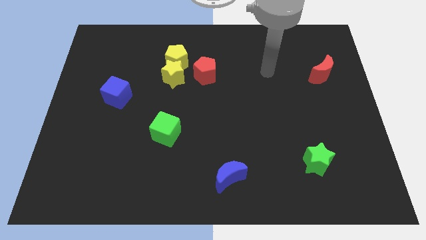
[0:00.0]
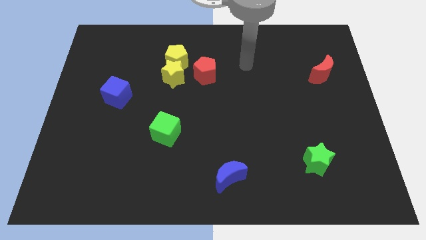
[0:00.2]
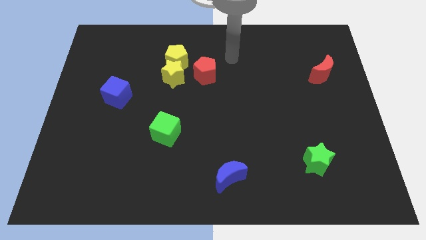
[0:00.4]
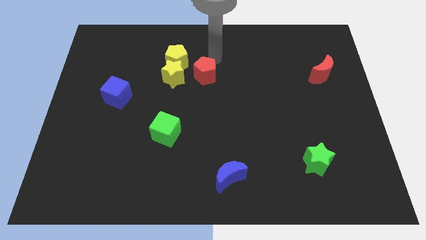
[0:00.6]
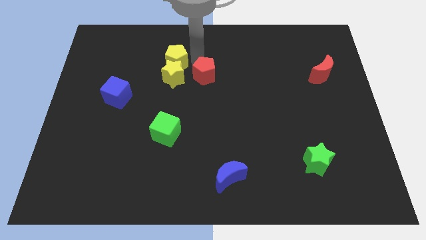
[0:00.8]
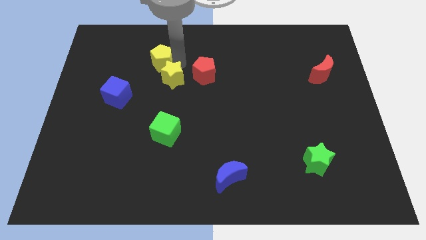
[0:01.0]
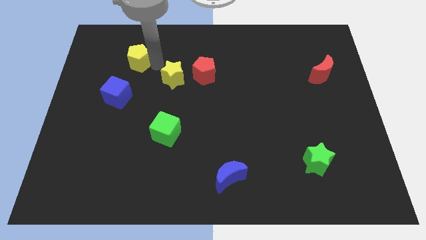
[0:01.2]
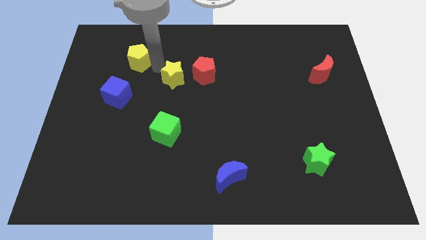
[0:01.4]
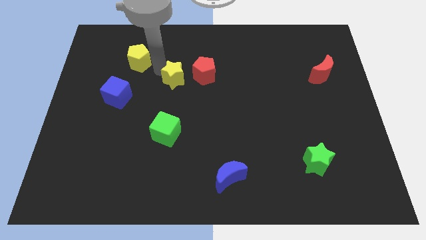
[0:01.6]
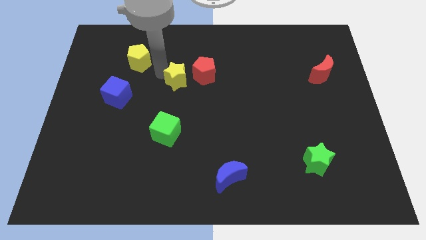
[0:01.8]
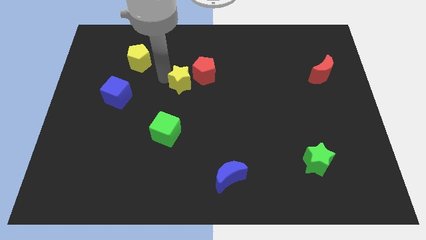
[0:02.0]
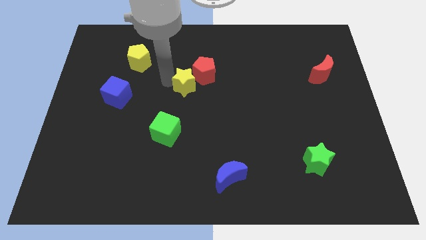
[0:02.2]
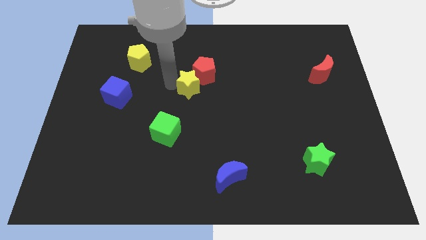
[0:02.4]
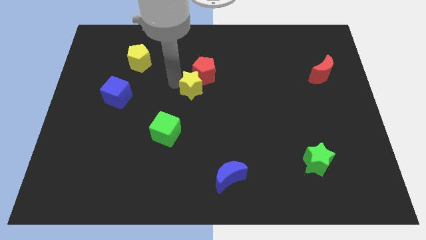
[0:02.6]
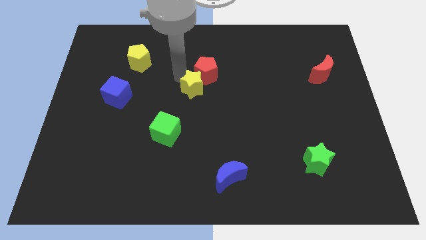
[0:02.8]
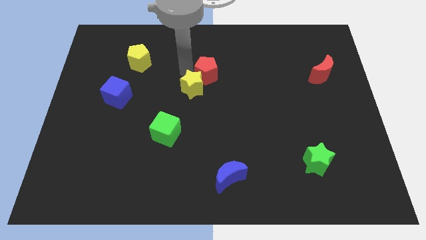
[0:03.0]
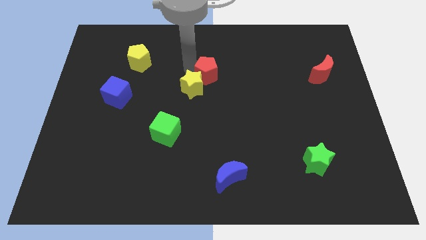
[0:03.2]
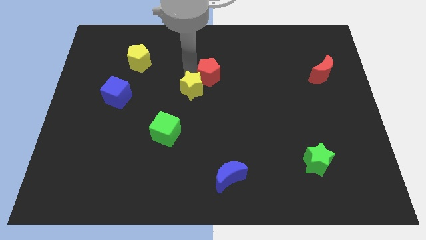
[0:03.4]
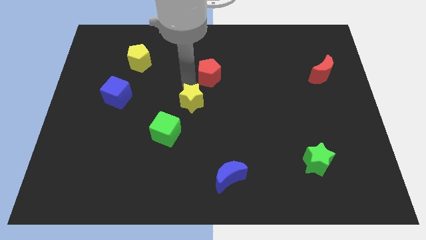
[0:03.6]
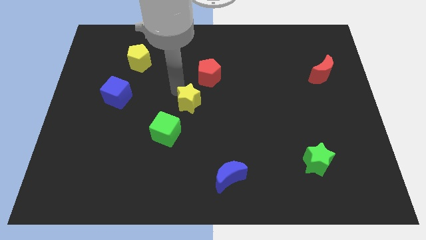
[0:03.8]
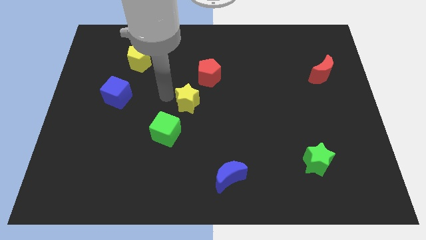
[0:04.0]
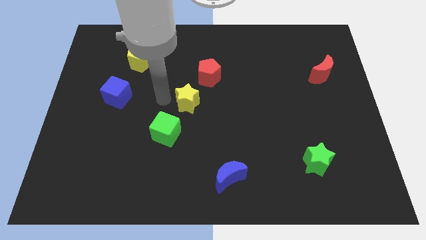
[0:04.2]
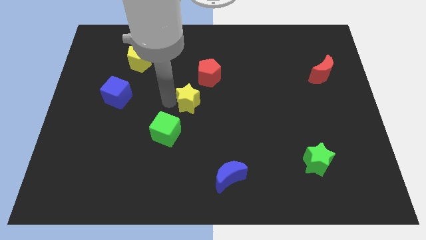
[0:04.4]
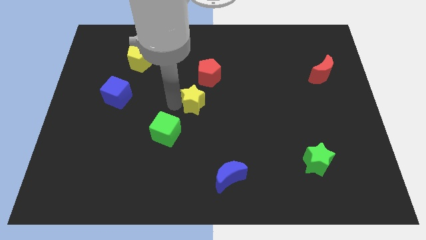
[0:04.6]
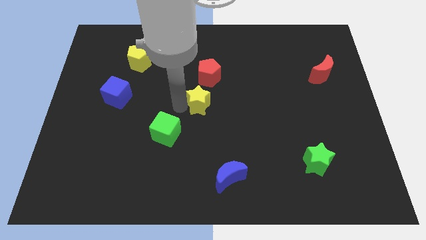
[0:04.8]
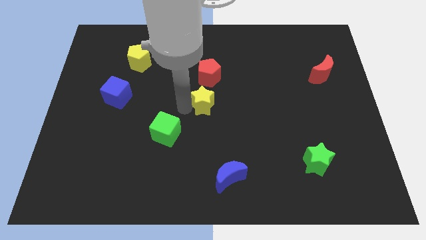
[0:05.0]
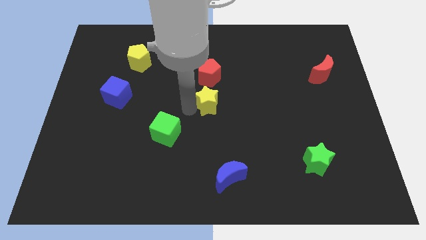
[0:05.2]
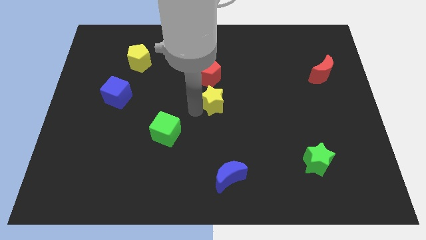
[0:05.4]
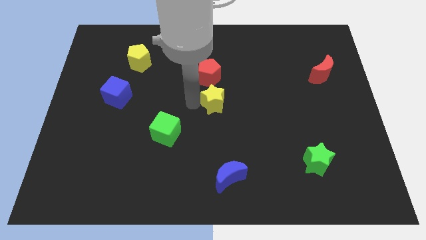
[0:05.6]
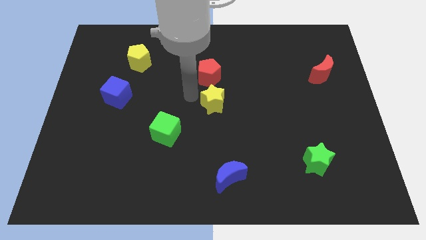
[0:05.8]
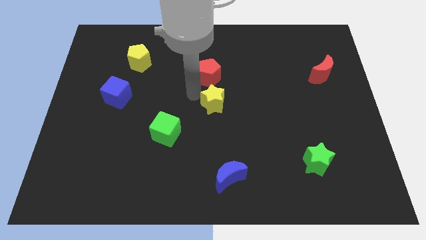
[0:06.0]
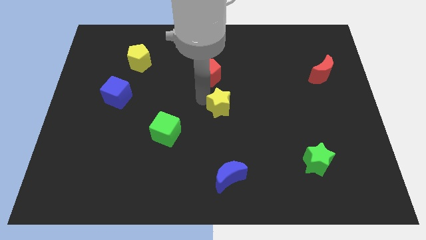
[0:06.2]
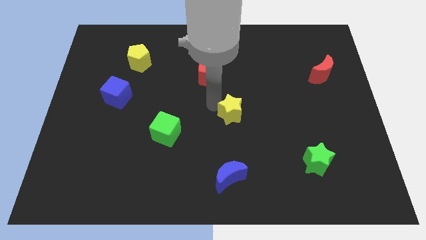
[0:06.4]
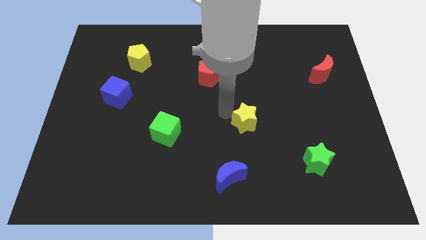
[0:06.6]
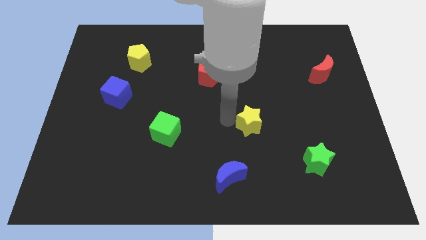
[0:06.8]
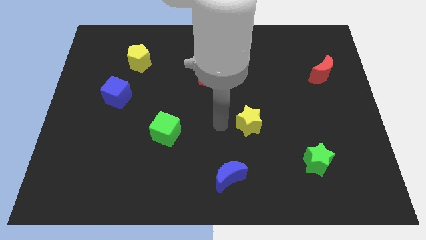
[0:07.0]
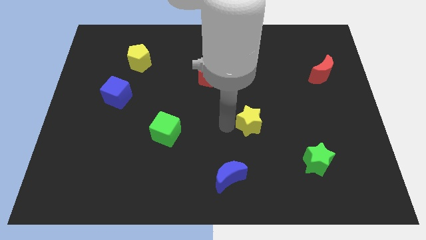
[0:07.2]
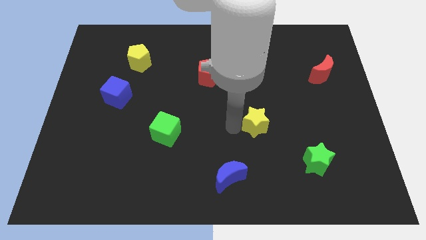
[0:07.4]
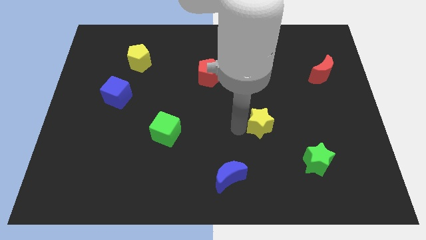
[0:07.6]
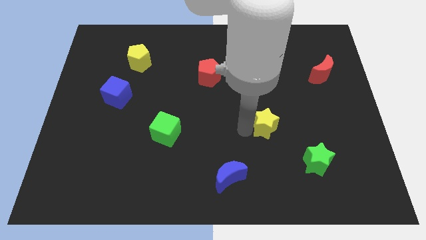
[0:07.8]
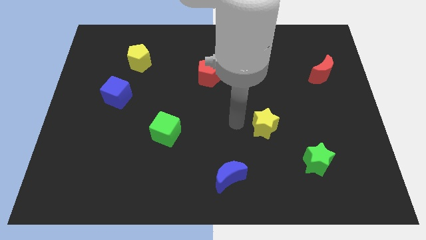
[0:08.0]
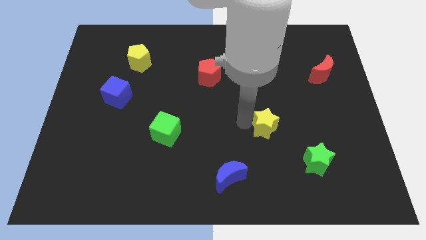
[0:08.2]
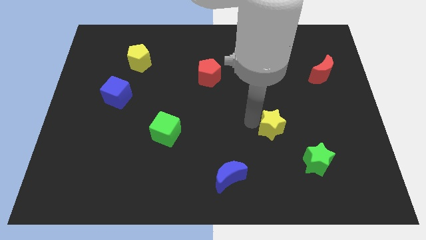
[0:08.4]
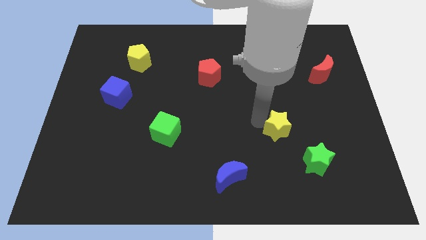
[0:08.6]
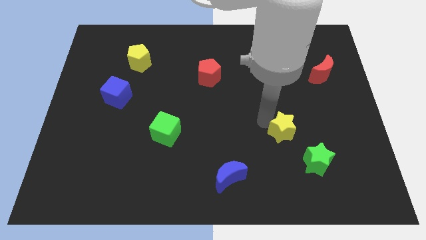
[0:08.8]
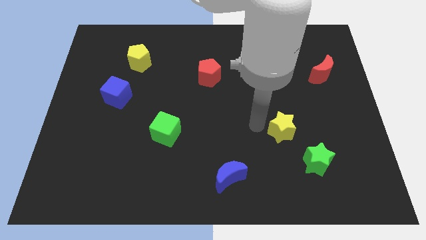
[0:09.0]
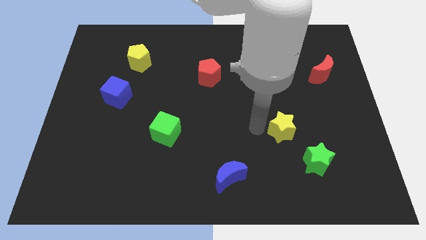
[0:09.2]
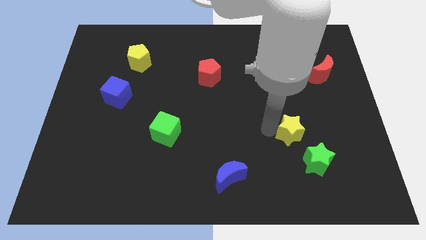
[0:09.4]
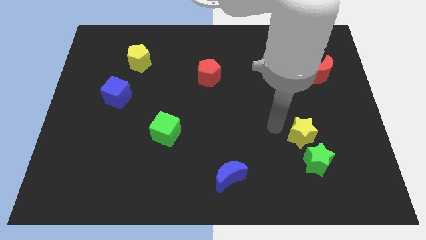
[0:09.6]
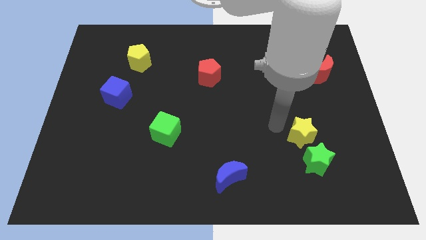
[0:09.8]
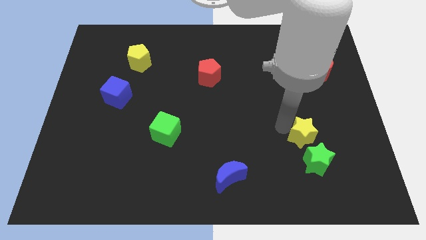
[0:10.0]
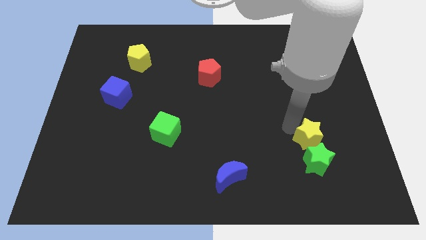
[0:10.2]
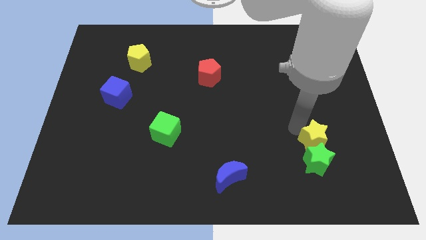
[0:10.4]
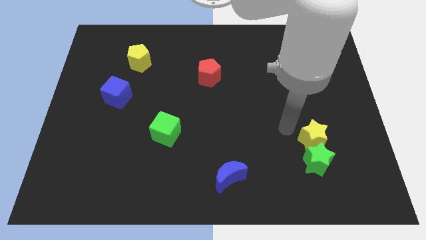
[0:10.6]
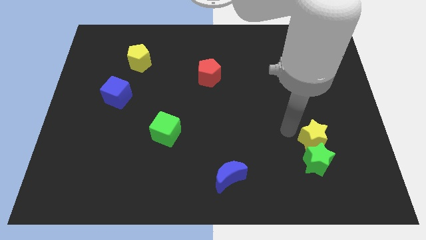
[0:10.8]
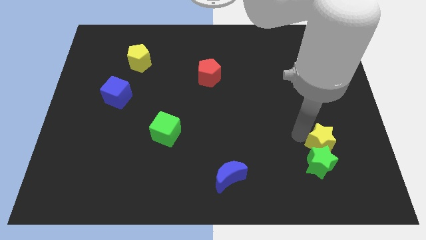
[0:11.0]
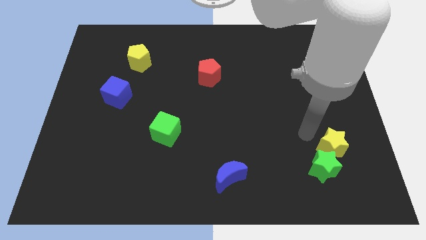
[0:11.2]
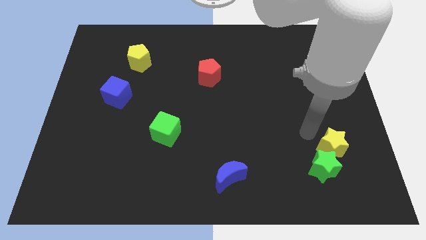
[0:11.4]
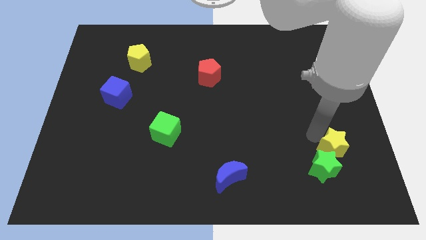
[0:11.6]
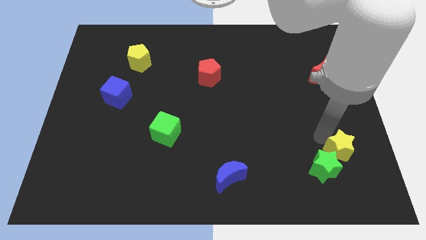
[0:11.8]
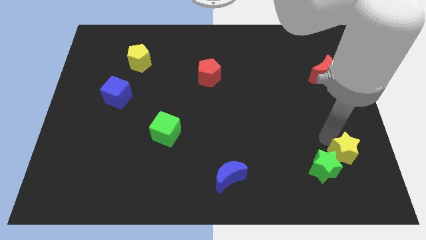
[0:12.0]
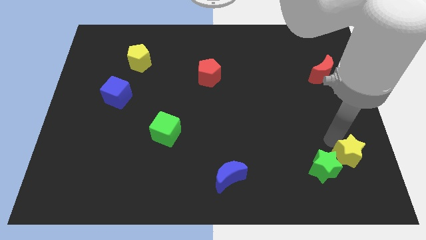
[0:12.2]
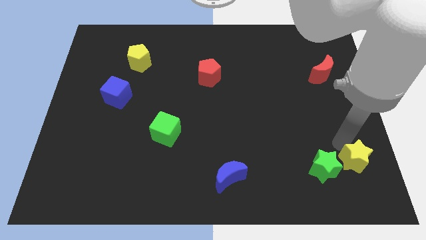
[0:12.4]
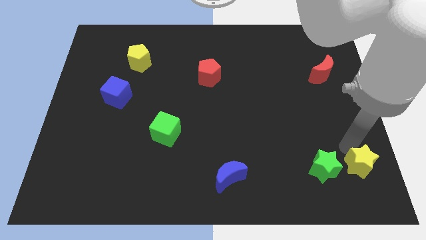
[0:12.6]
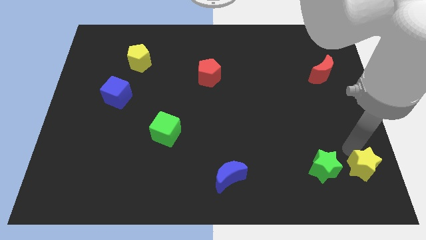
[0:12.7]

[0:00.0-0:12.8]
put the yellow star to the bottom right
